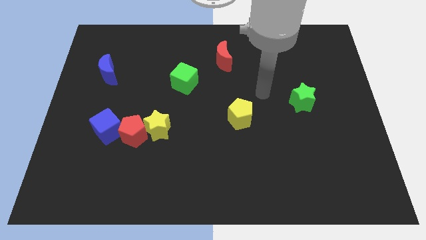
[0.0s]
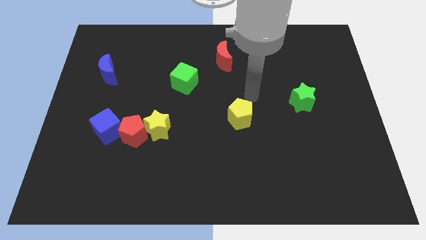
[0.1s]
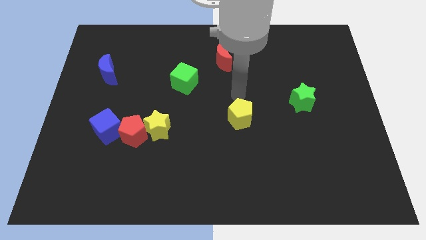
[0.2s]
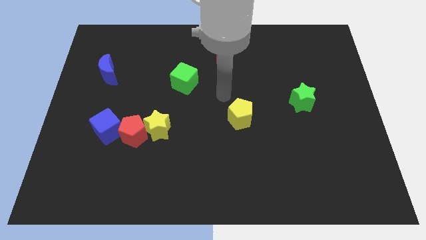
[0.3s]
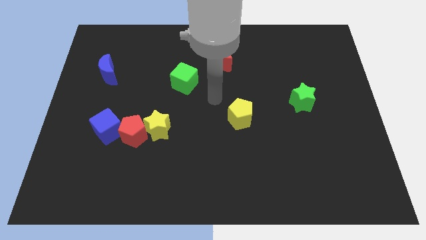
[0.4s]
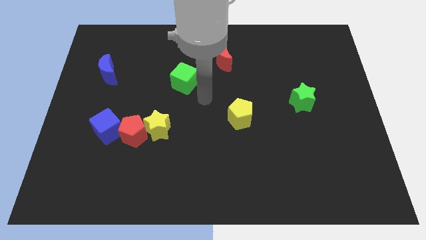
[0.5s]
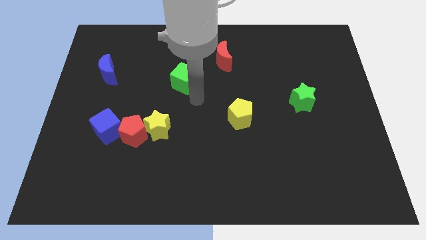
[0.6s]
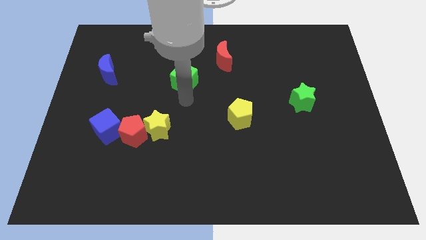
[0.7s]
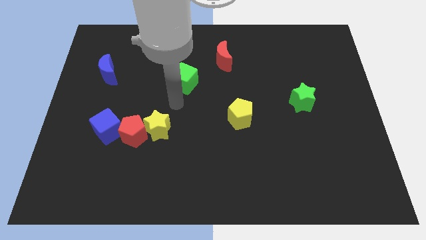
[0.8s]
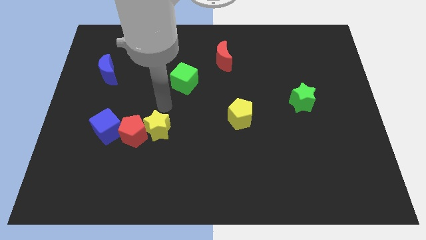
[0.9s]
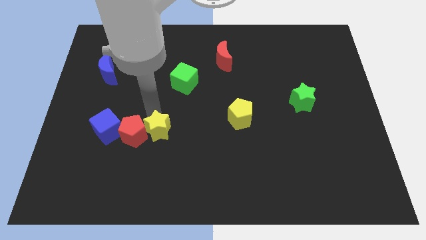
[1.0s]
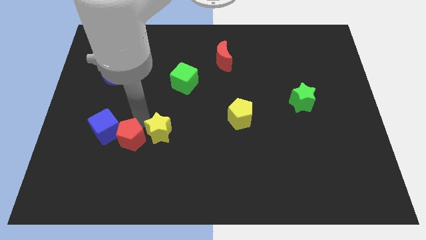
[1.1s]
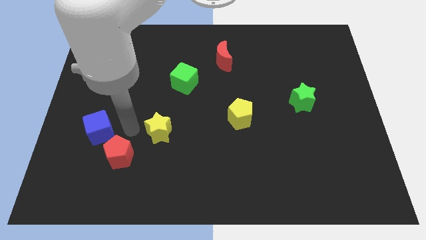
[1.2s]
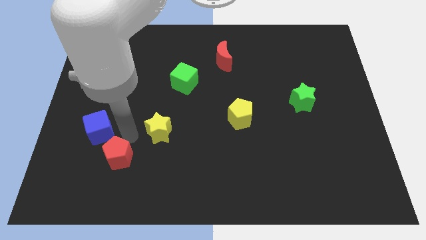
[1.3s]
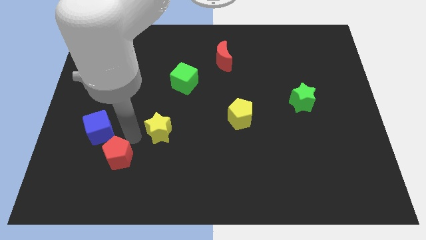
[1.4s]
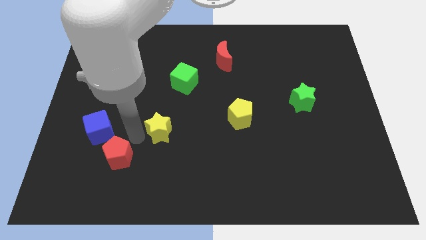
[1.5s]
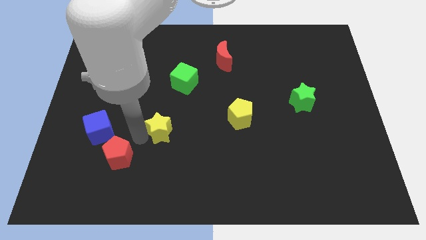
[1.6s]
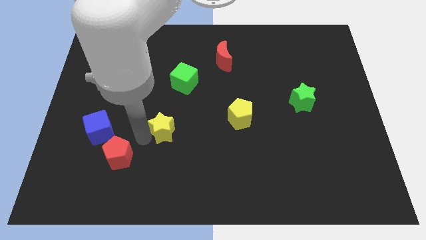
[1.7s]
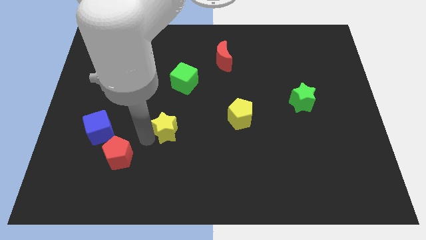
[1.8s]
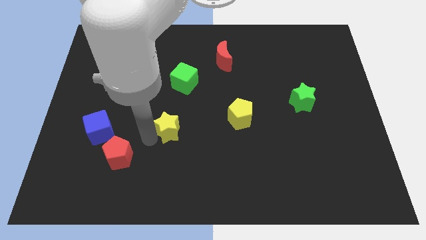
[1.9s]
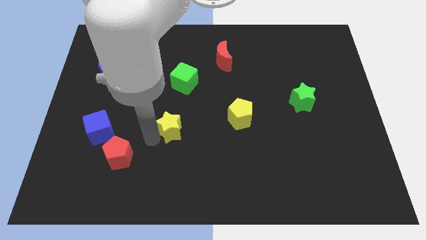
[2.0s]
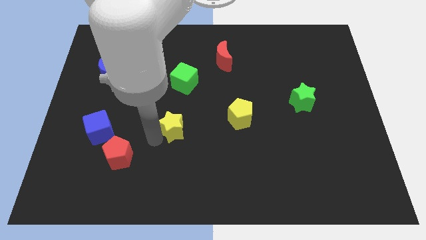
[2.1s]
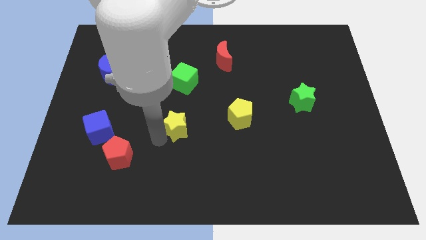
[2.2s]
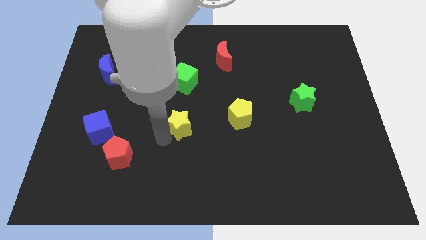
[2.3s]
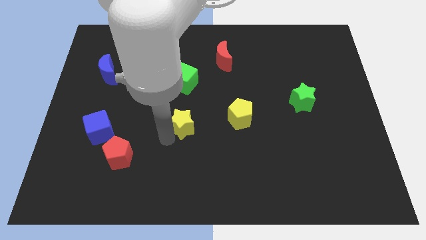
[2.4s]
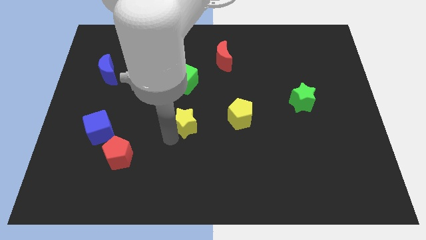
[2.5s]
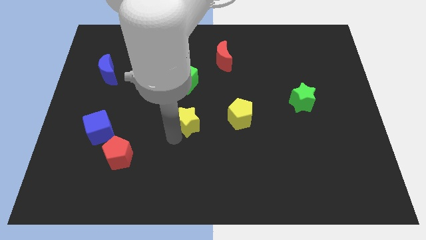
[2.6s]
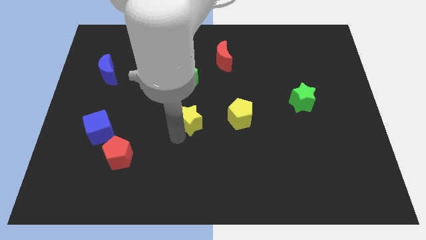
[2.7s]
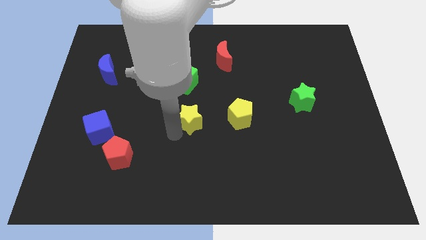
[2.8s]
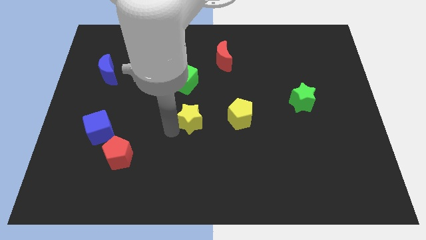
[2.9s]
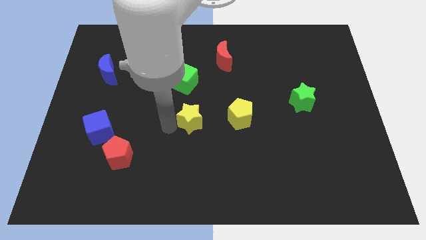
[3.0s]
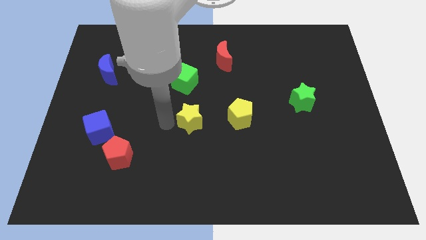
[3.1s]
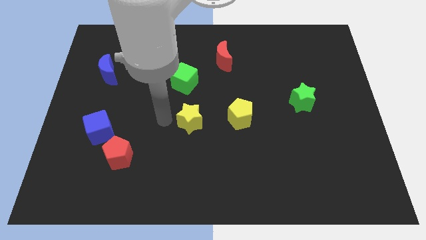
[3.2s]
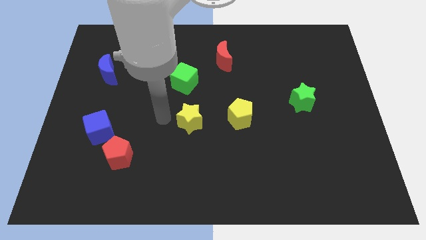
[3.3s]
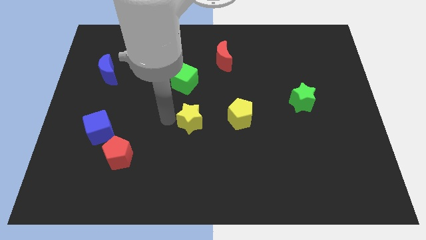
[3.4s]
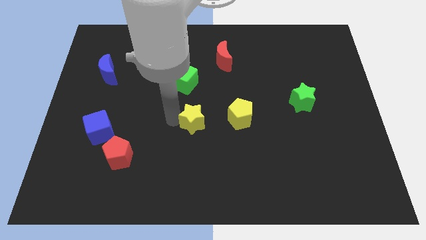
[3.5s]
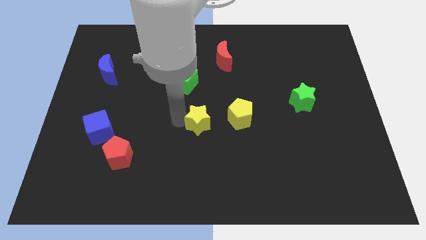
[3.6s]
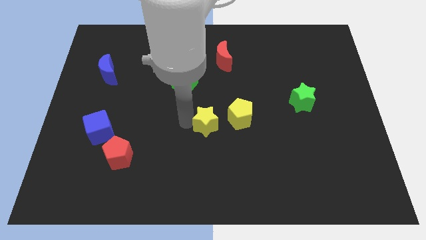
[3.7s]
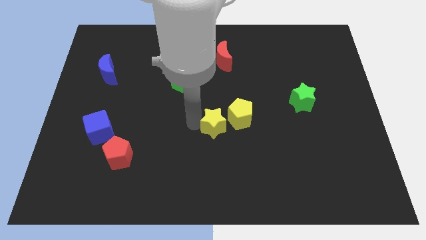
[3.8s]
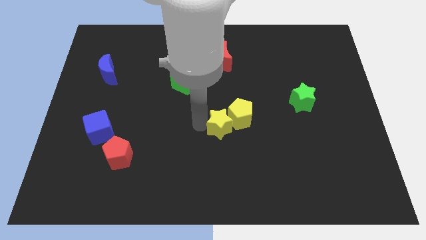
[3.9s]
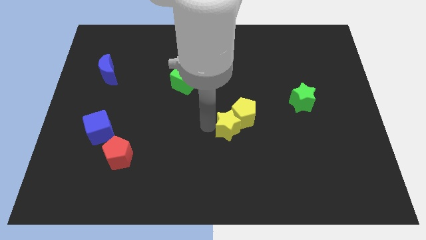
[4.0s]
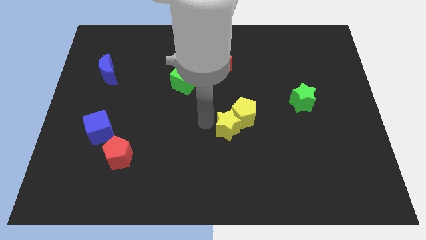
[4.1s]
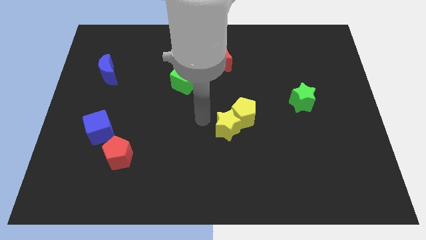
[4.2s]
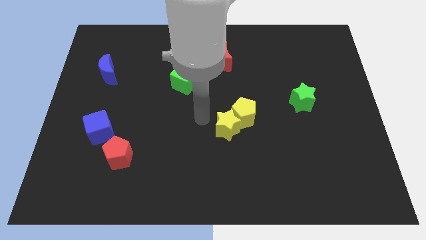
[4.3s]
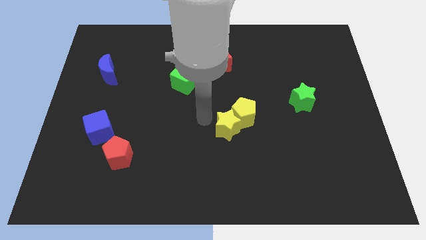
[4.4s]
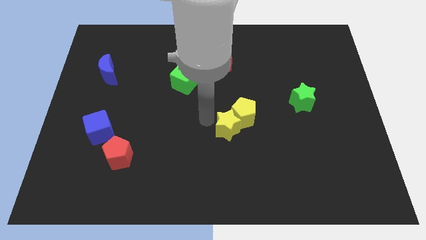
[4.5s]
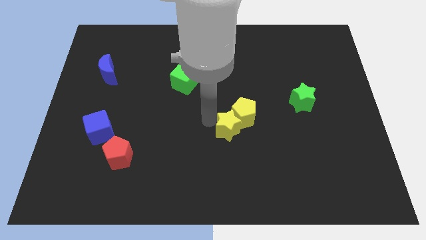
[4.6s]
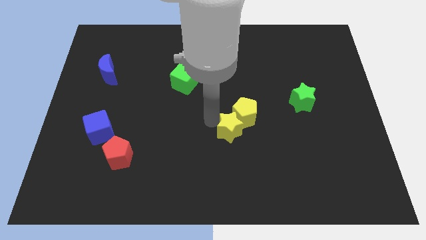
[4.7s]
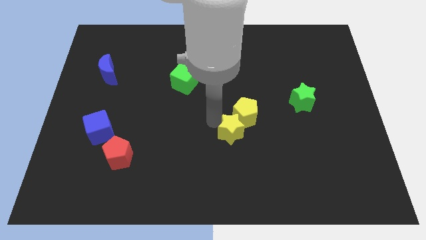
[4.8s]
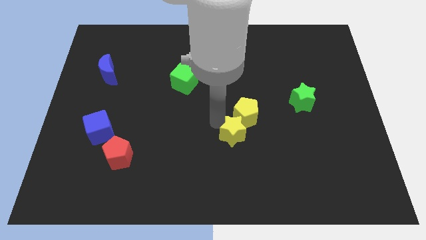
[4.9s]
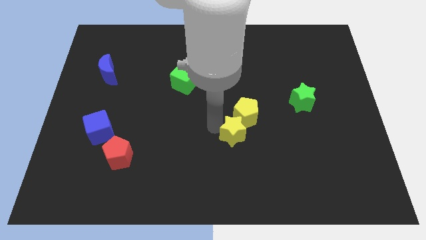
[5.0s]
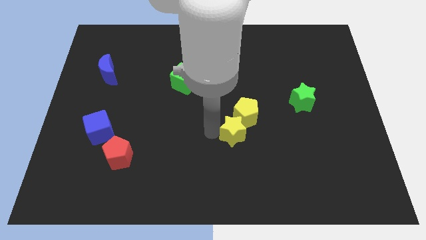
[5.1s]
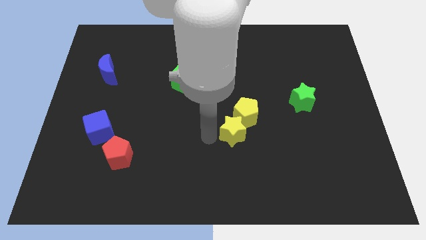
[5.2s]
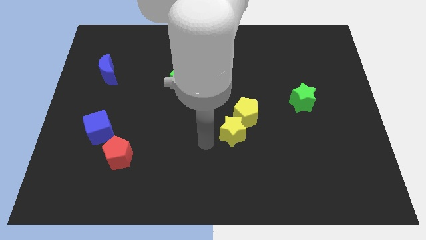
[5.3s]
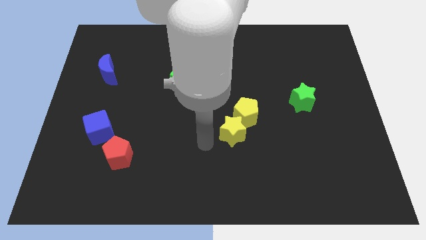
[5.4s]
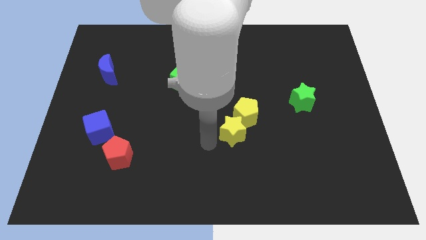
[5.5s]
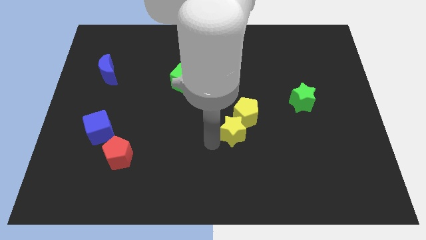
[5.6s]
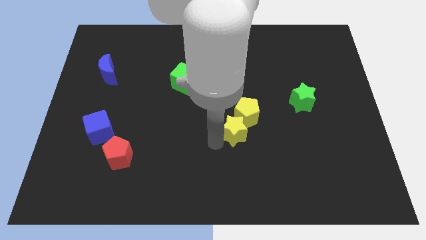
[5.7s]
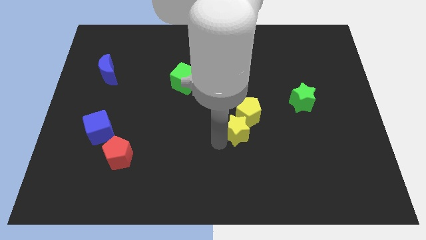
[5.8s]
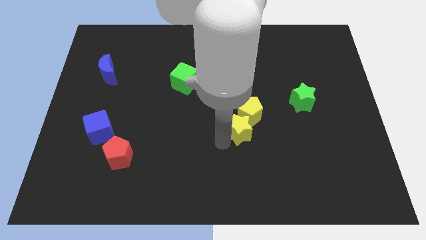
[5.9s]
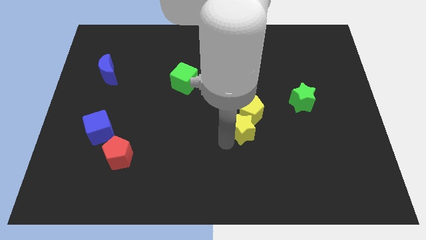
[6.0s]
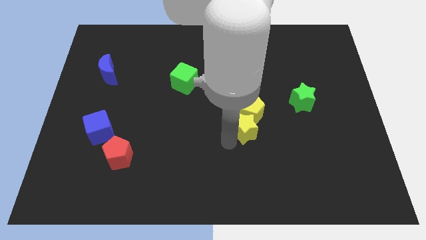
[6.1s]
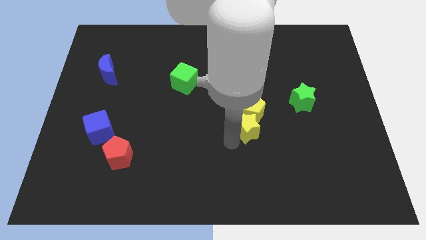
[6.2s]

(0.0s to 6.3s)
slide the yellow star right

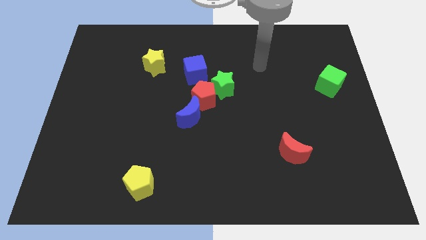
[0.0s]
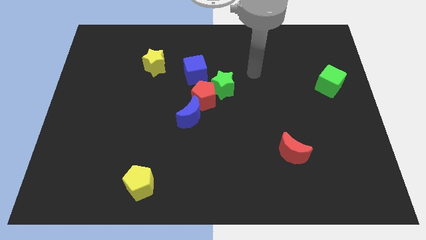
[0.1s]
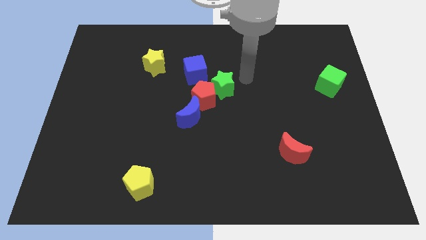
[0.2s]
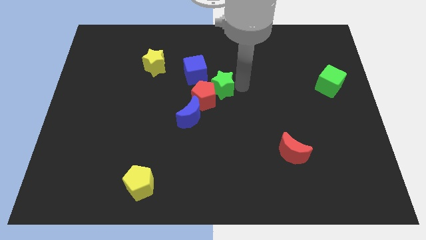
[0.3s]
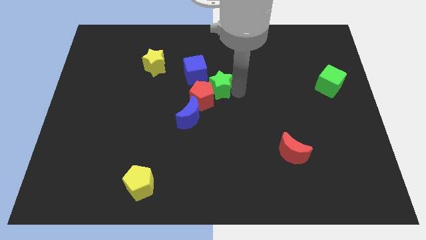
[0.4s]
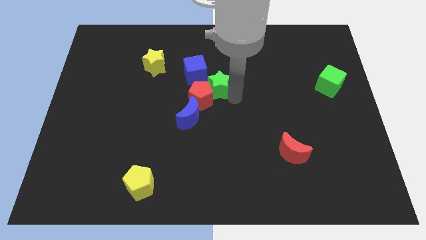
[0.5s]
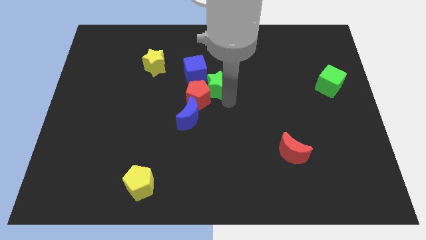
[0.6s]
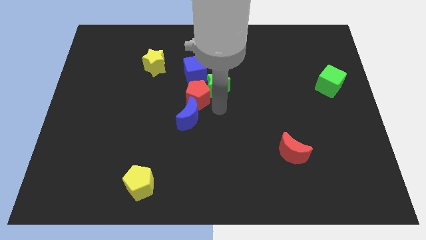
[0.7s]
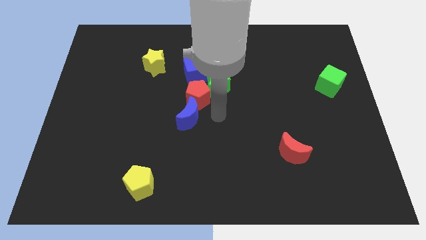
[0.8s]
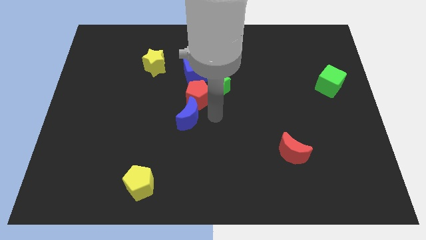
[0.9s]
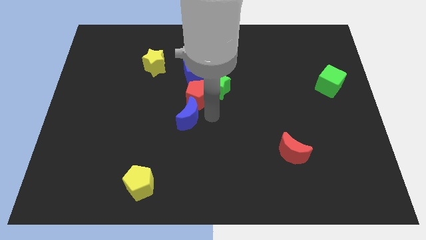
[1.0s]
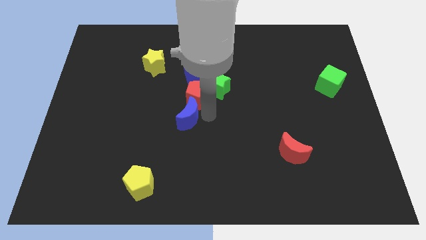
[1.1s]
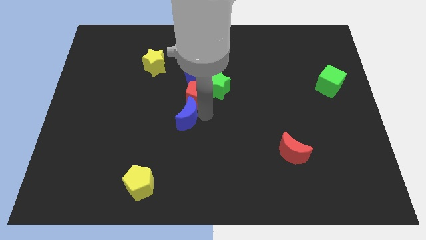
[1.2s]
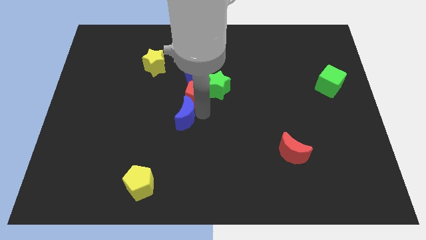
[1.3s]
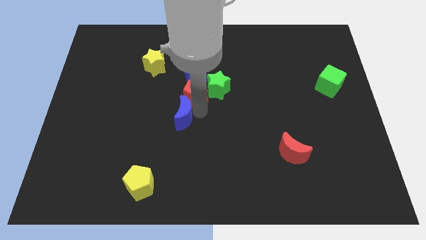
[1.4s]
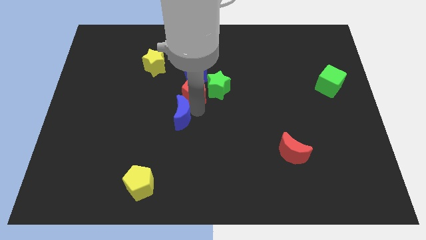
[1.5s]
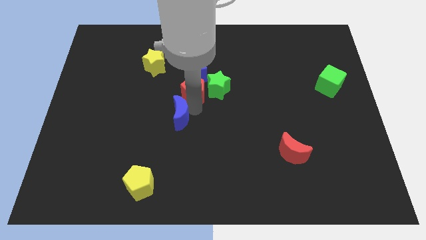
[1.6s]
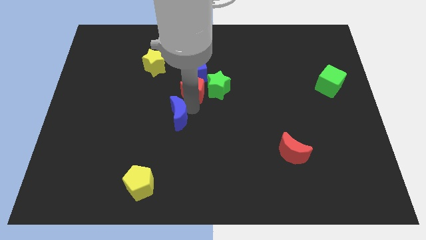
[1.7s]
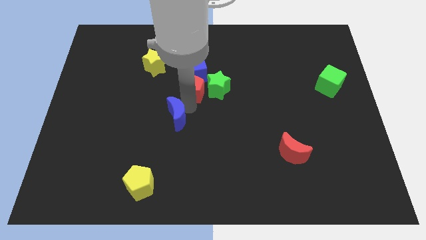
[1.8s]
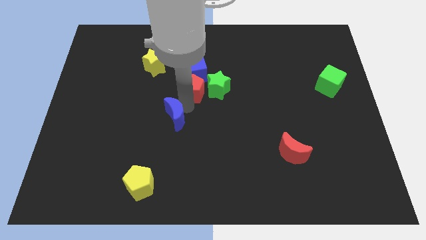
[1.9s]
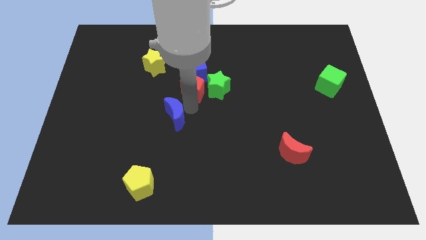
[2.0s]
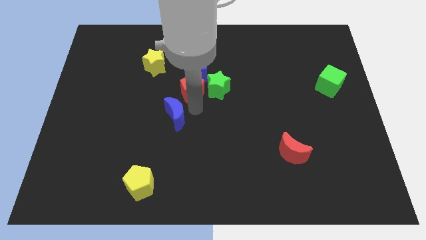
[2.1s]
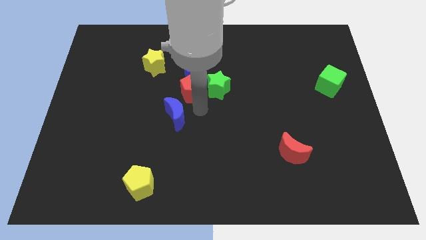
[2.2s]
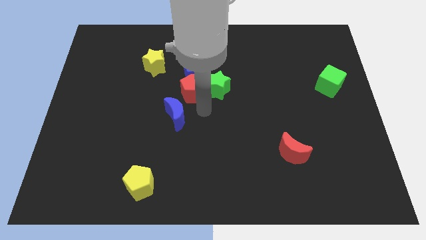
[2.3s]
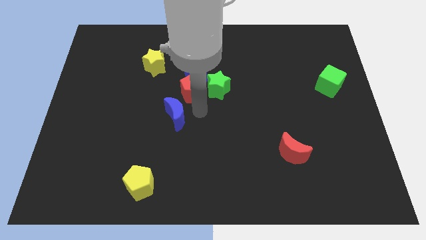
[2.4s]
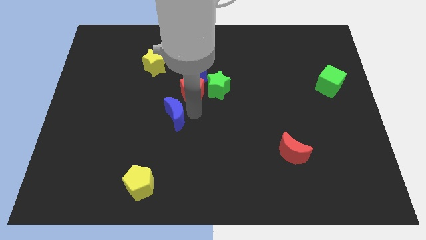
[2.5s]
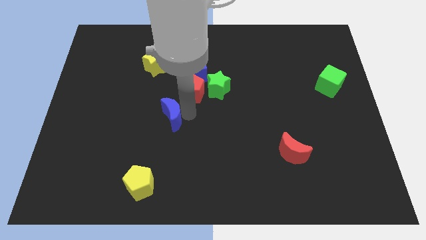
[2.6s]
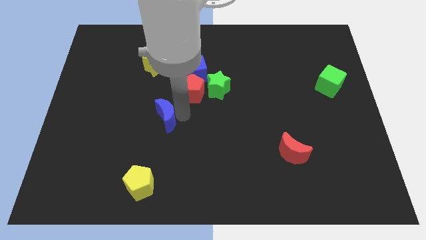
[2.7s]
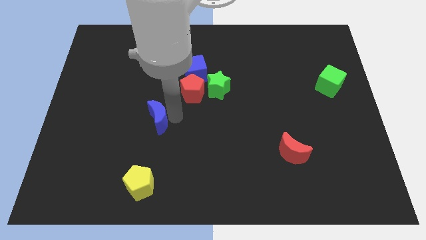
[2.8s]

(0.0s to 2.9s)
move the blue moon a little left
